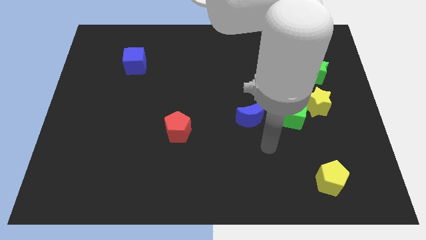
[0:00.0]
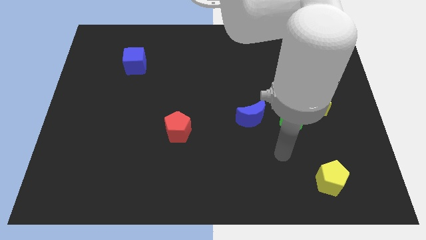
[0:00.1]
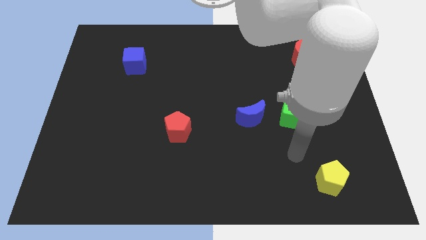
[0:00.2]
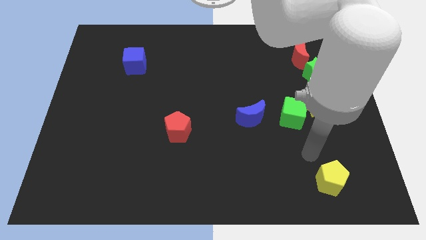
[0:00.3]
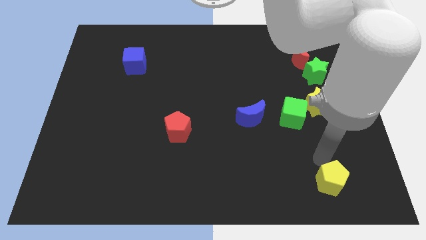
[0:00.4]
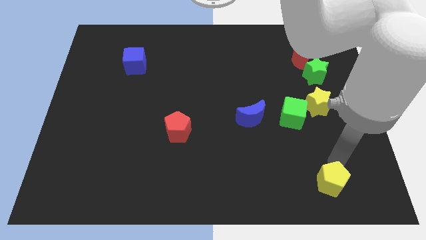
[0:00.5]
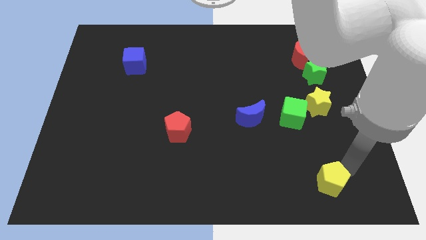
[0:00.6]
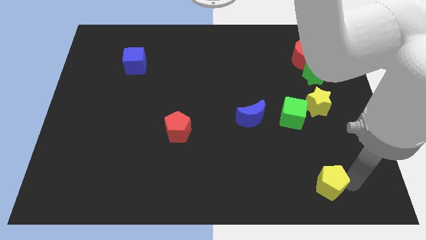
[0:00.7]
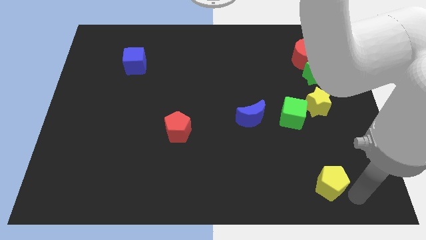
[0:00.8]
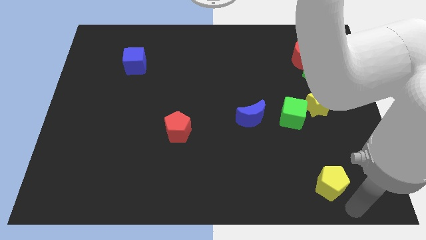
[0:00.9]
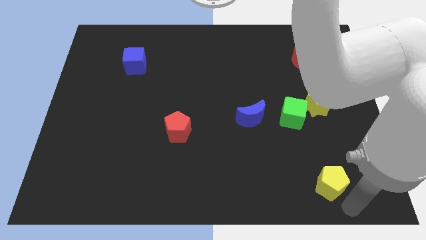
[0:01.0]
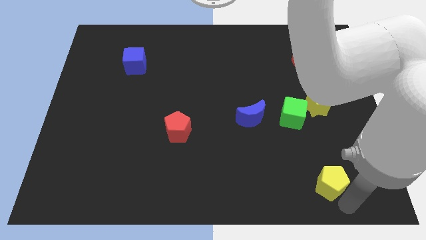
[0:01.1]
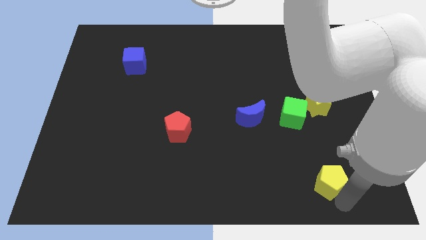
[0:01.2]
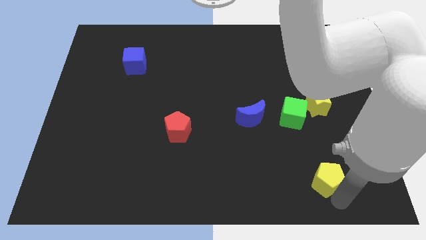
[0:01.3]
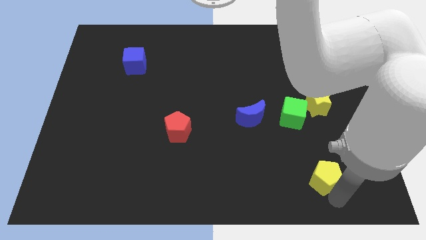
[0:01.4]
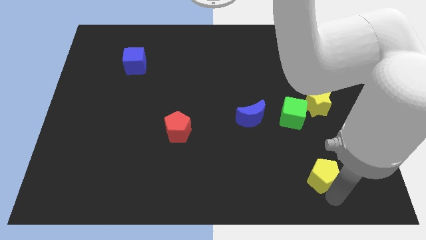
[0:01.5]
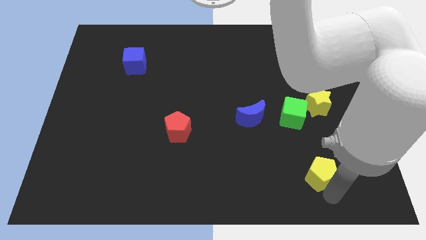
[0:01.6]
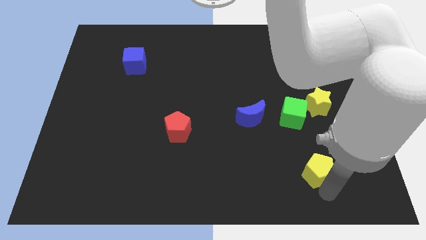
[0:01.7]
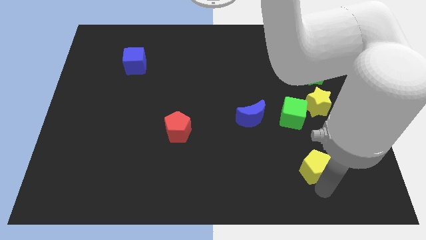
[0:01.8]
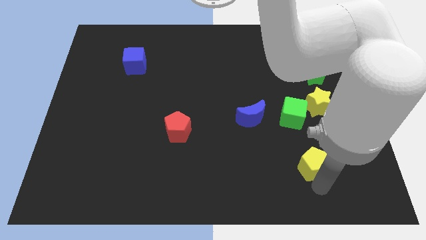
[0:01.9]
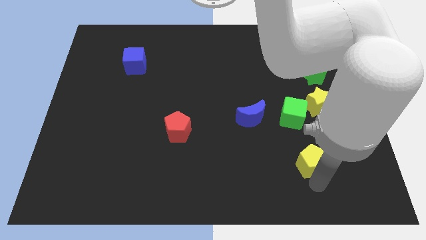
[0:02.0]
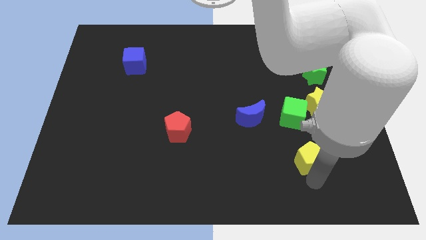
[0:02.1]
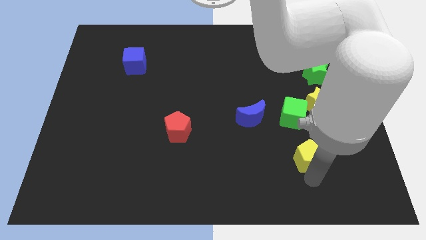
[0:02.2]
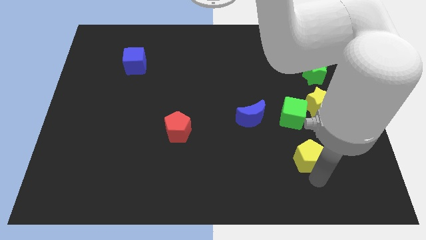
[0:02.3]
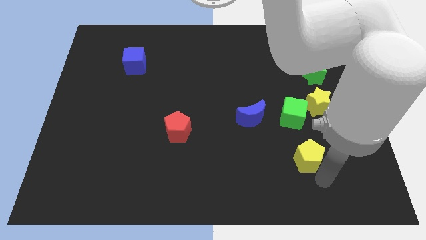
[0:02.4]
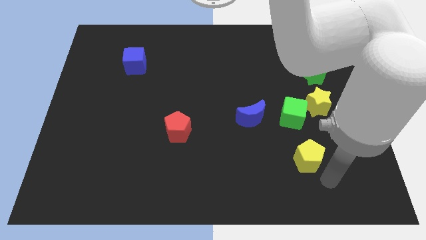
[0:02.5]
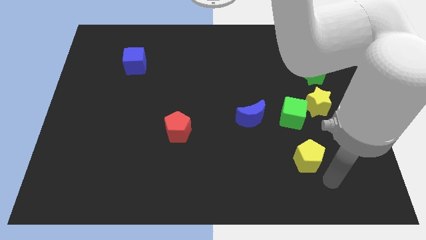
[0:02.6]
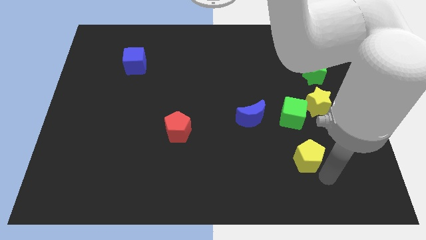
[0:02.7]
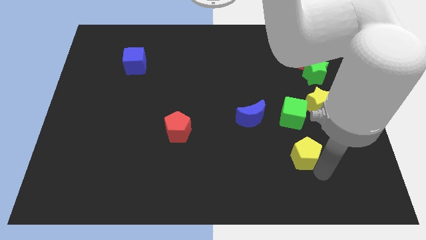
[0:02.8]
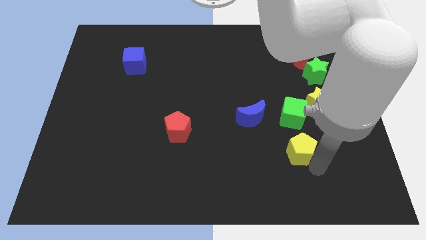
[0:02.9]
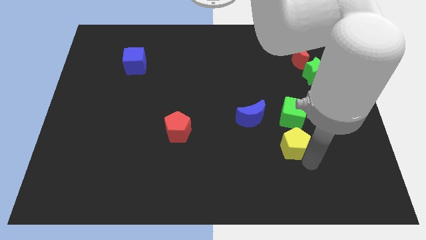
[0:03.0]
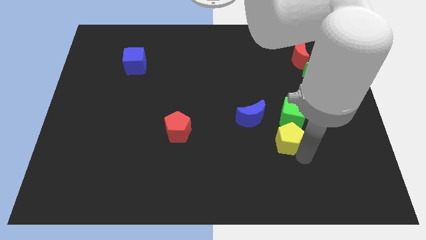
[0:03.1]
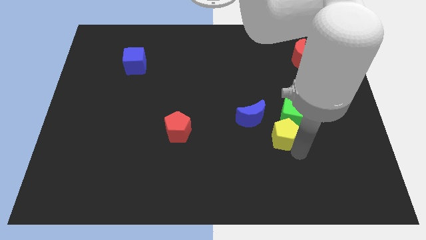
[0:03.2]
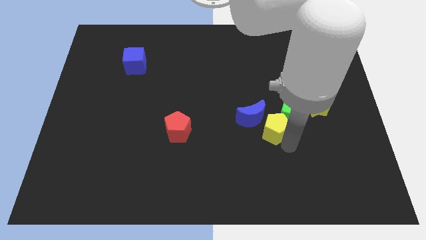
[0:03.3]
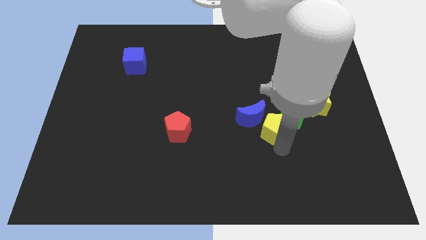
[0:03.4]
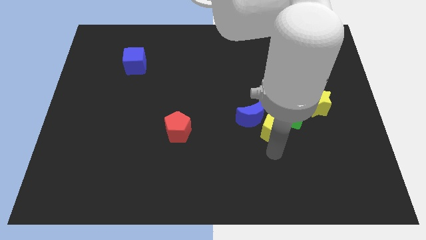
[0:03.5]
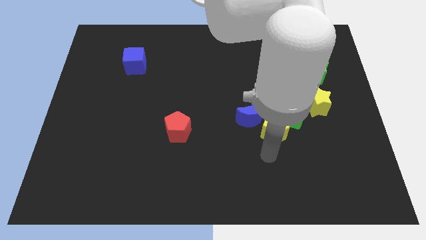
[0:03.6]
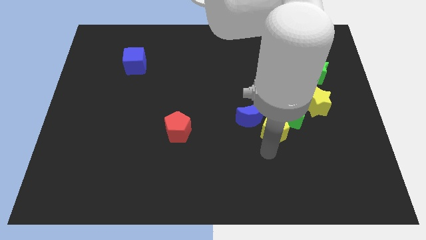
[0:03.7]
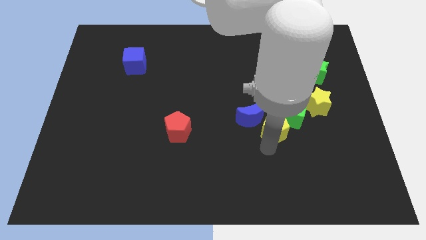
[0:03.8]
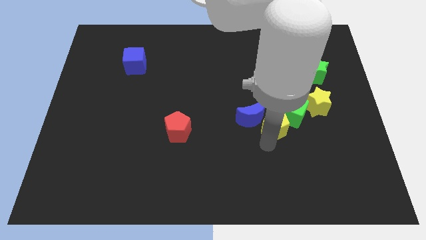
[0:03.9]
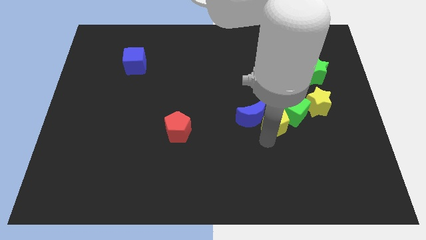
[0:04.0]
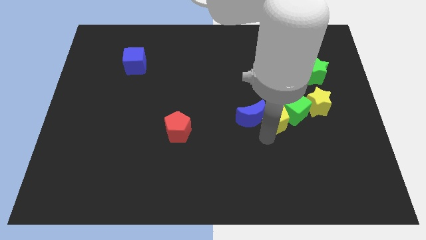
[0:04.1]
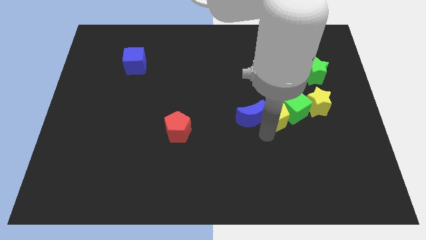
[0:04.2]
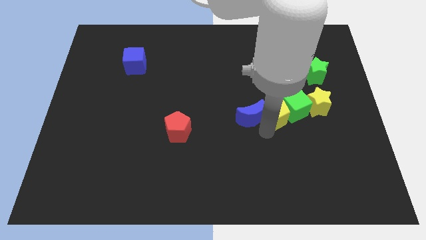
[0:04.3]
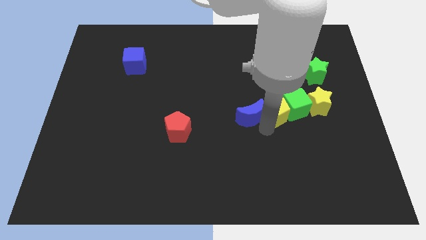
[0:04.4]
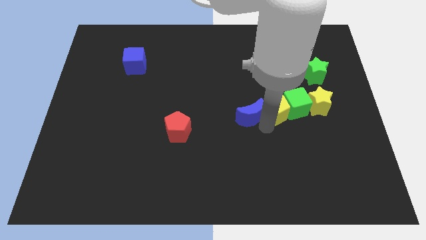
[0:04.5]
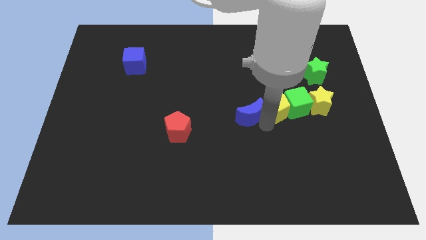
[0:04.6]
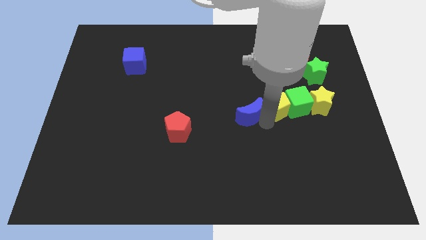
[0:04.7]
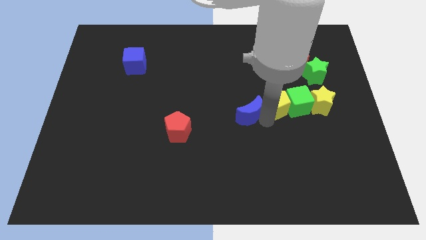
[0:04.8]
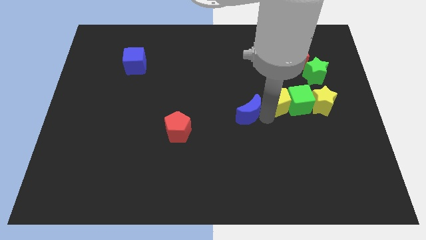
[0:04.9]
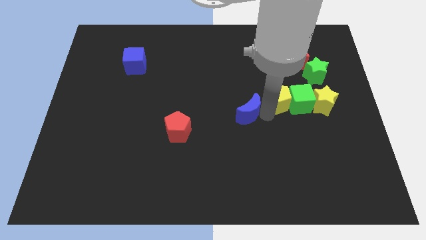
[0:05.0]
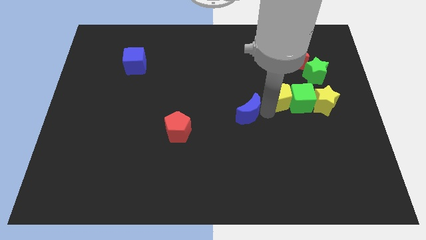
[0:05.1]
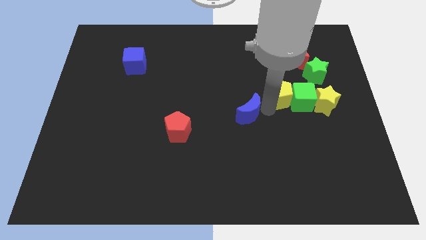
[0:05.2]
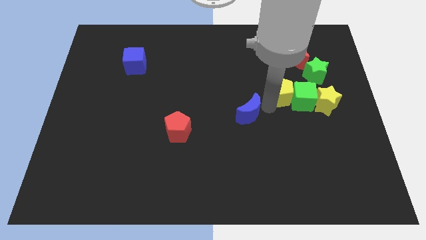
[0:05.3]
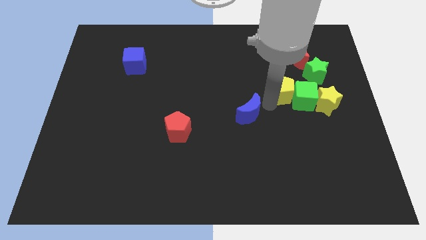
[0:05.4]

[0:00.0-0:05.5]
put the yellow pentagon diagonally up and to the left of the yellow star

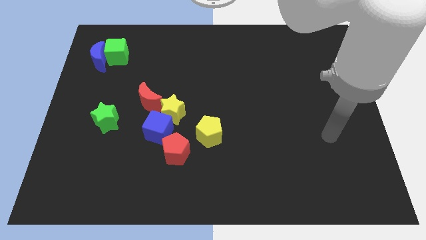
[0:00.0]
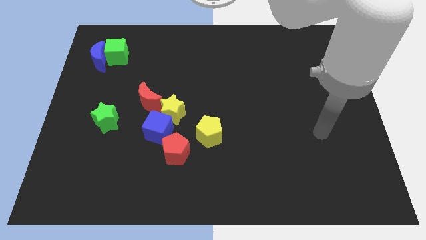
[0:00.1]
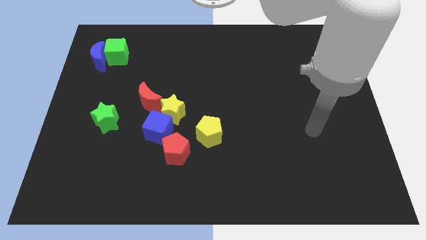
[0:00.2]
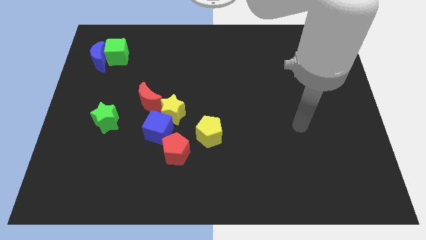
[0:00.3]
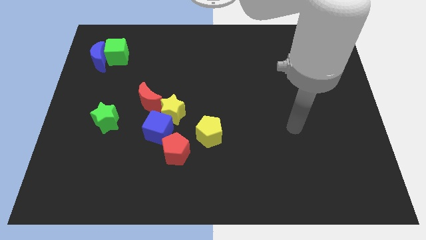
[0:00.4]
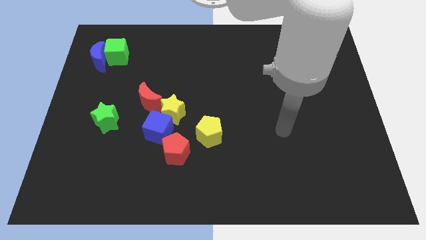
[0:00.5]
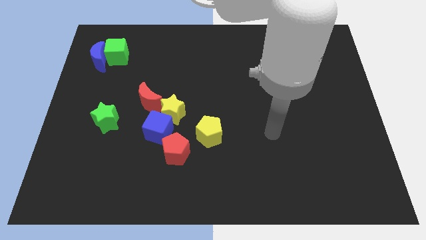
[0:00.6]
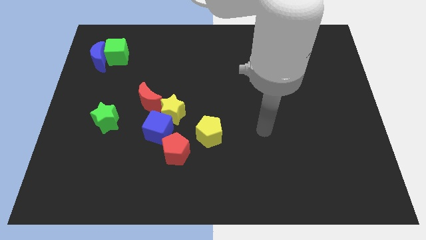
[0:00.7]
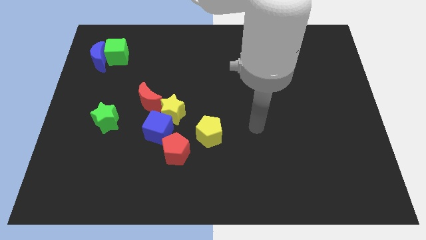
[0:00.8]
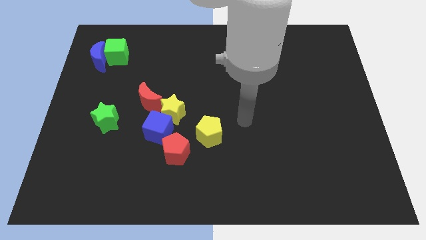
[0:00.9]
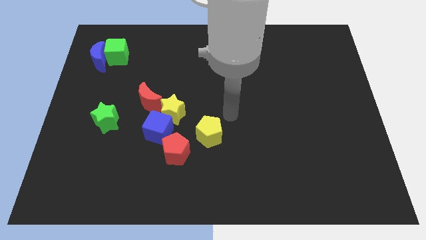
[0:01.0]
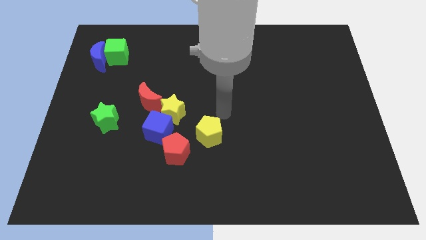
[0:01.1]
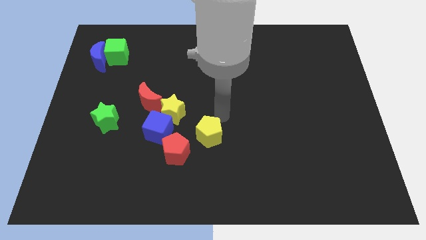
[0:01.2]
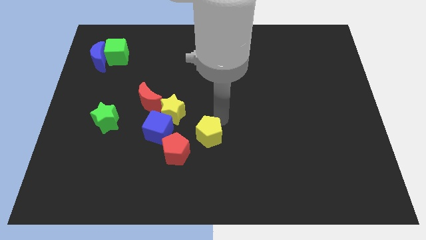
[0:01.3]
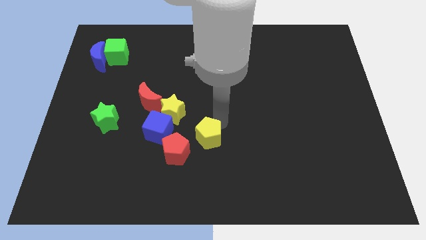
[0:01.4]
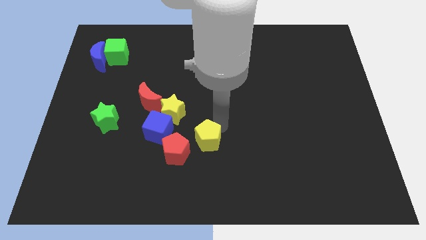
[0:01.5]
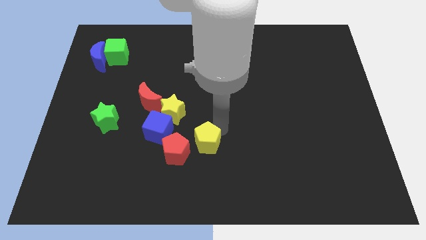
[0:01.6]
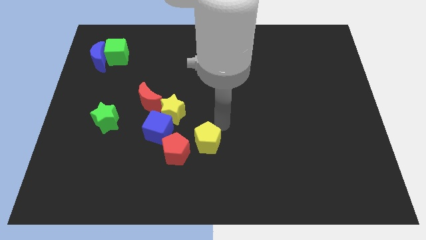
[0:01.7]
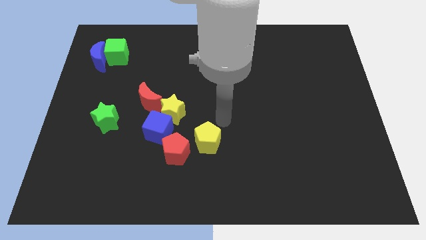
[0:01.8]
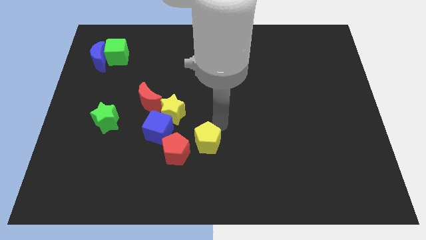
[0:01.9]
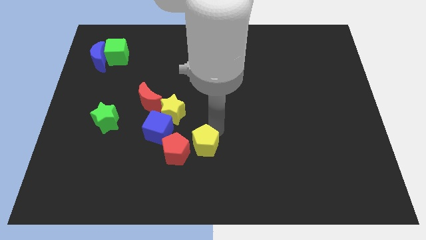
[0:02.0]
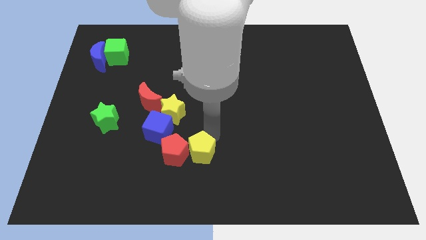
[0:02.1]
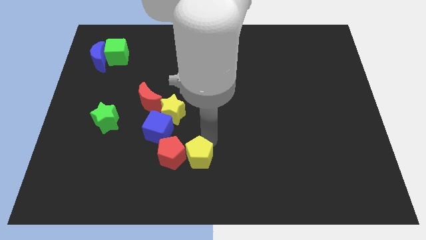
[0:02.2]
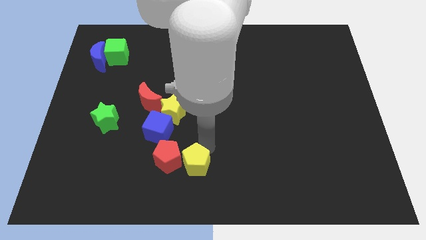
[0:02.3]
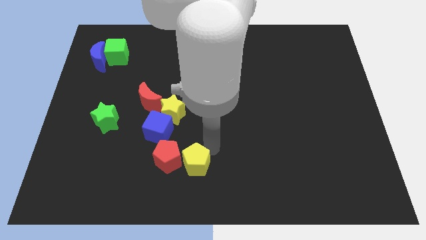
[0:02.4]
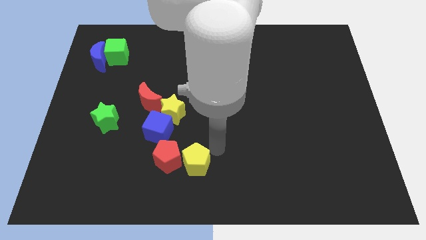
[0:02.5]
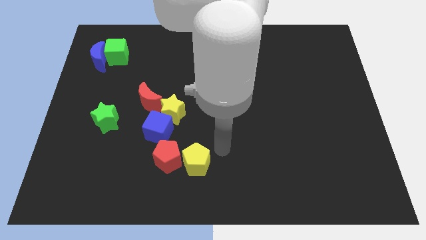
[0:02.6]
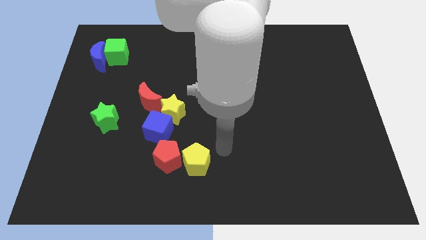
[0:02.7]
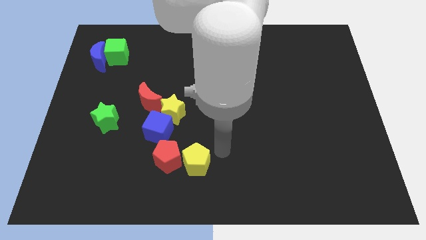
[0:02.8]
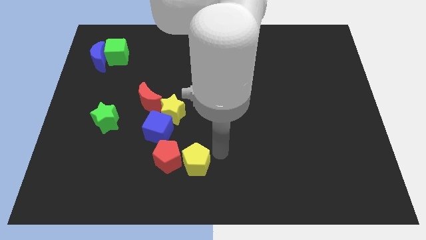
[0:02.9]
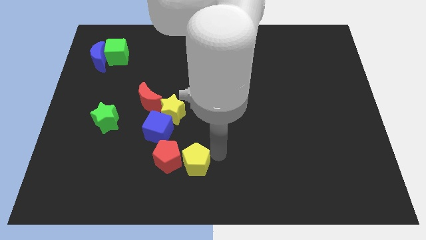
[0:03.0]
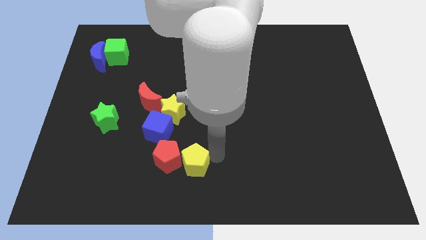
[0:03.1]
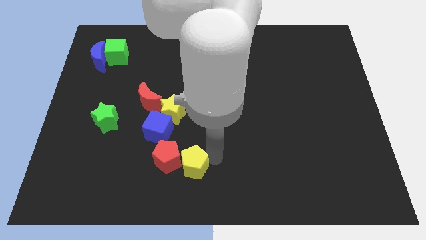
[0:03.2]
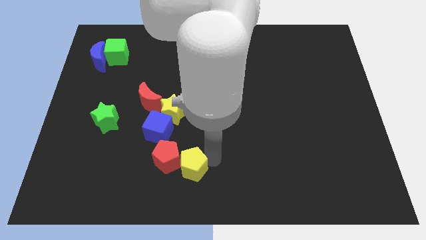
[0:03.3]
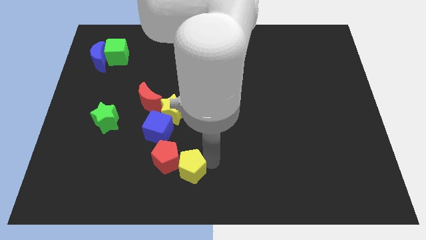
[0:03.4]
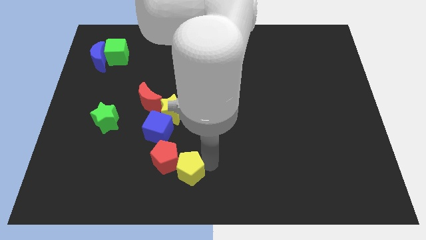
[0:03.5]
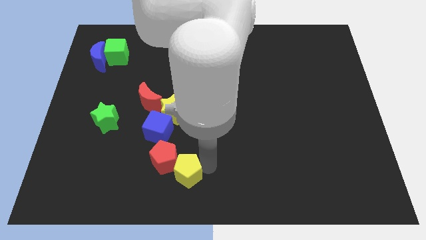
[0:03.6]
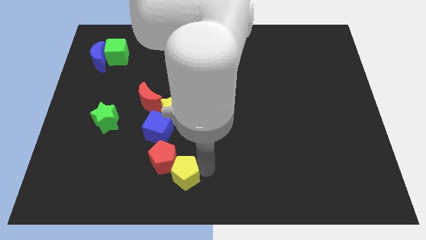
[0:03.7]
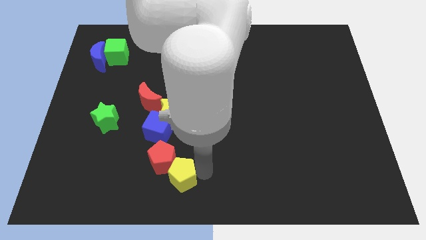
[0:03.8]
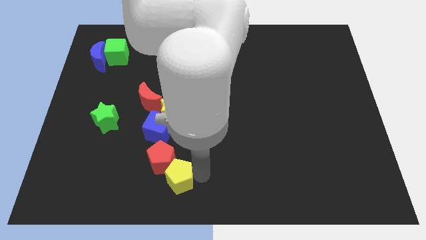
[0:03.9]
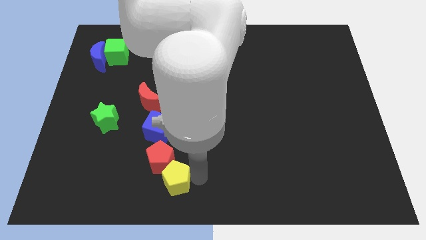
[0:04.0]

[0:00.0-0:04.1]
put the yellow pentagon to the bottom of the blue cube
